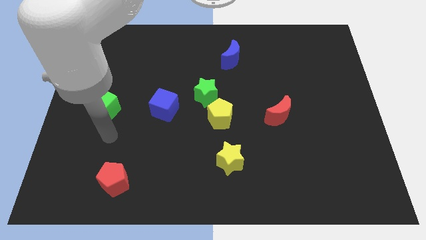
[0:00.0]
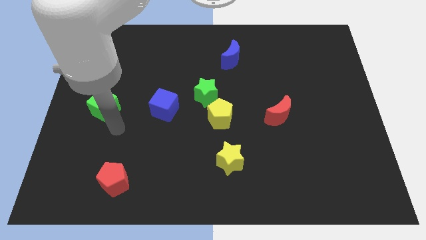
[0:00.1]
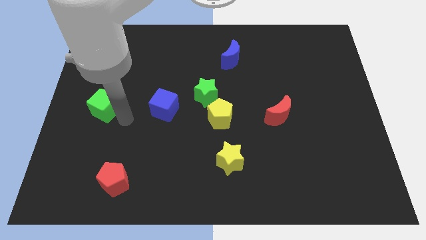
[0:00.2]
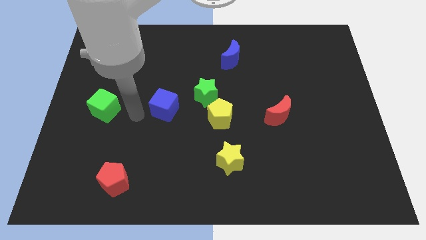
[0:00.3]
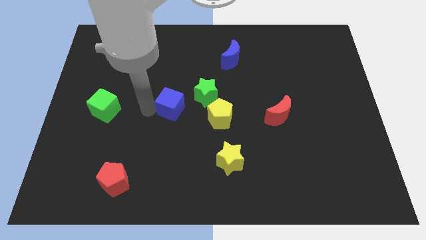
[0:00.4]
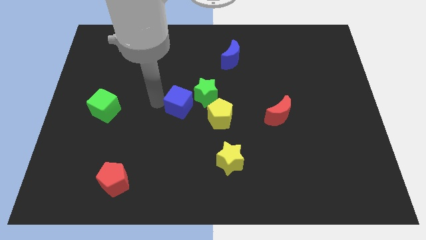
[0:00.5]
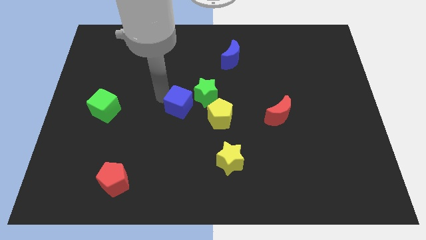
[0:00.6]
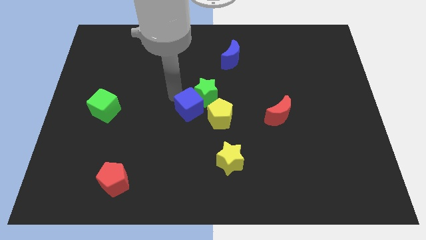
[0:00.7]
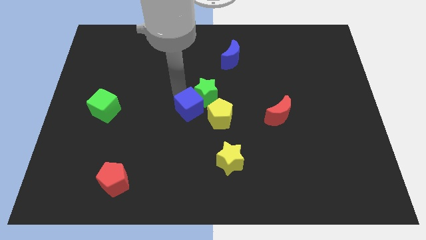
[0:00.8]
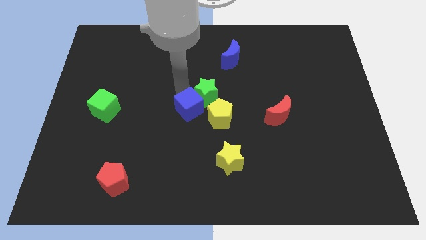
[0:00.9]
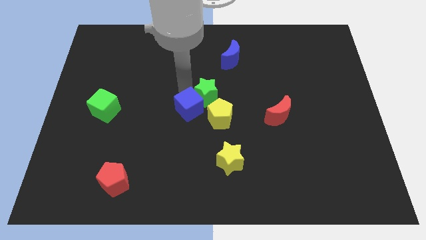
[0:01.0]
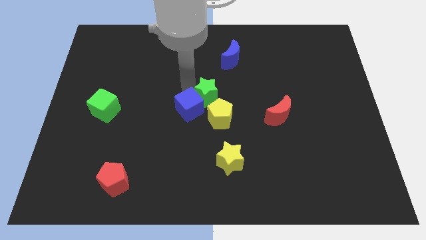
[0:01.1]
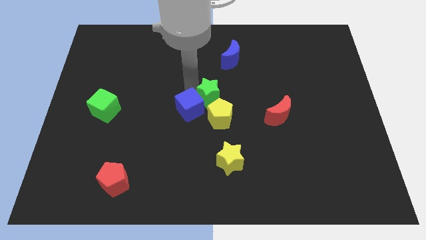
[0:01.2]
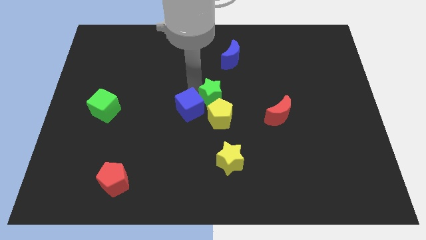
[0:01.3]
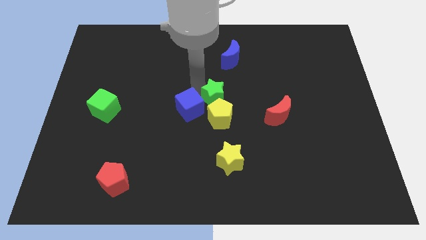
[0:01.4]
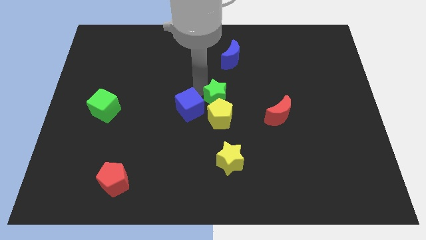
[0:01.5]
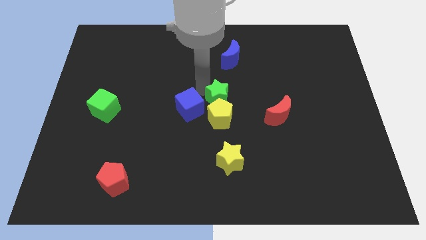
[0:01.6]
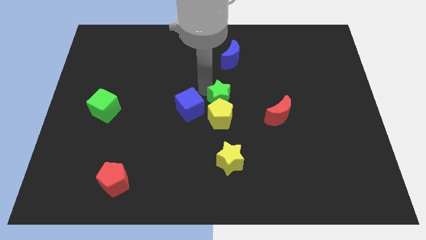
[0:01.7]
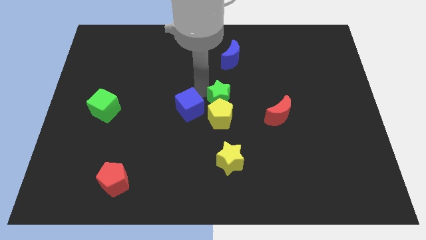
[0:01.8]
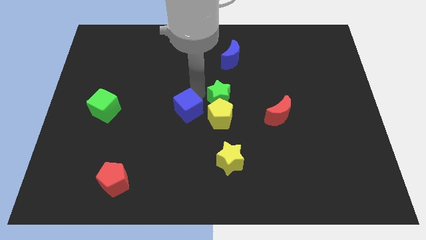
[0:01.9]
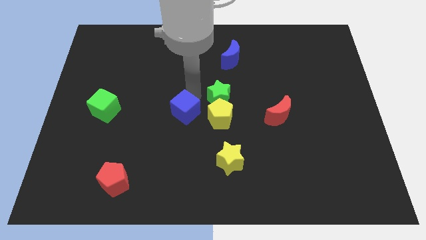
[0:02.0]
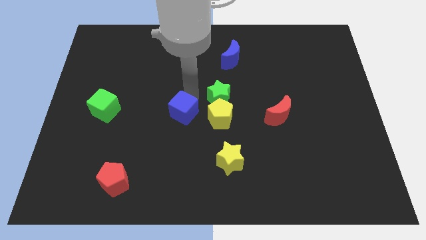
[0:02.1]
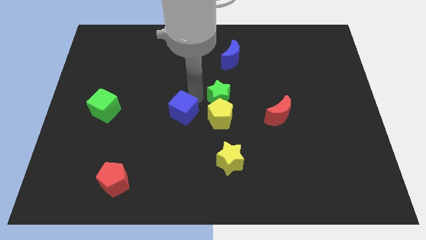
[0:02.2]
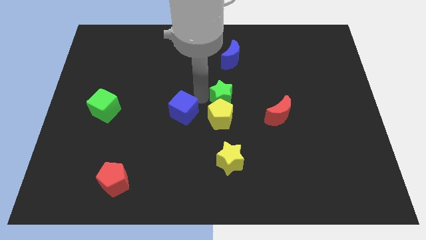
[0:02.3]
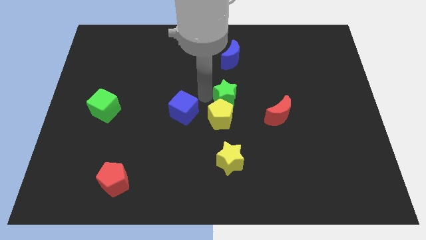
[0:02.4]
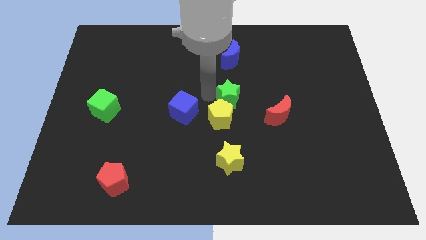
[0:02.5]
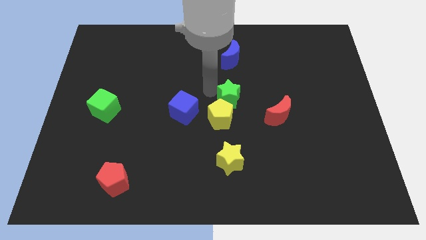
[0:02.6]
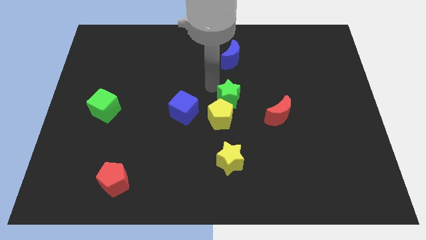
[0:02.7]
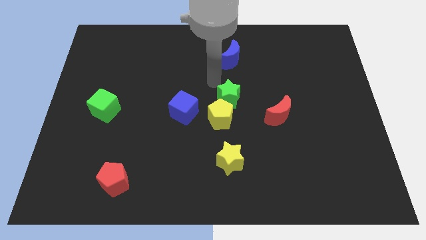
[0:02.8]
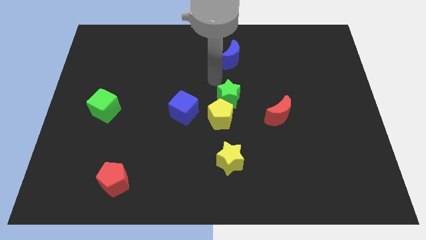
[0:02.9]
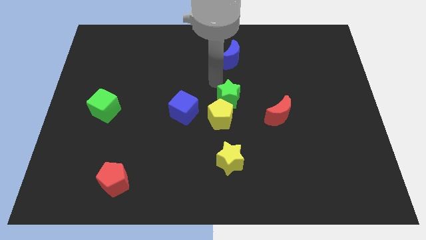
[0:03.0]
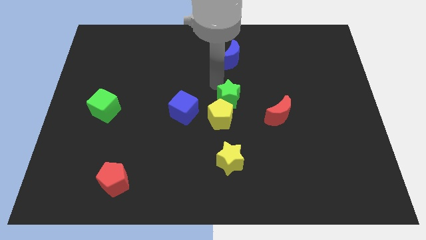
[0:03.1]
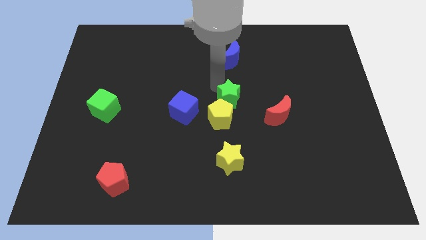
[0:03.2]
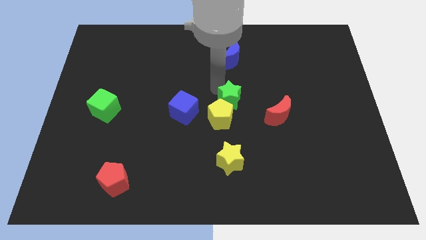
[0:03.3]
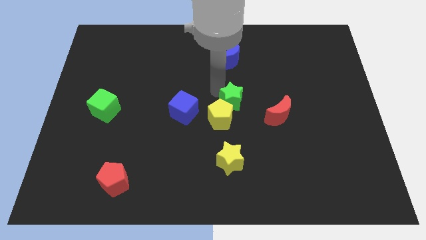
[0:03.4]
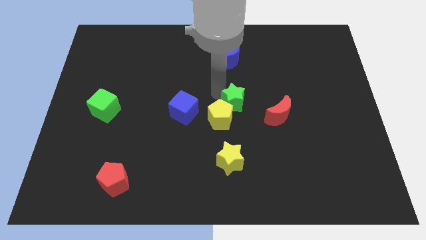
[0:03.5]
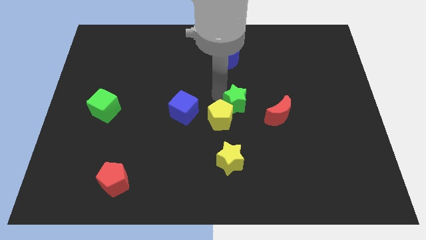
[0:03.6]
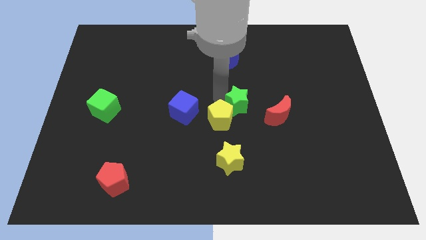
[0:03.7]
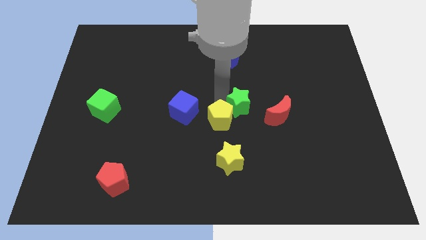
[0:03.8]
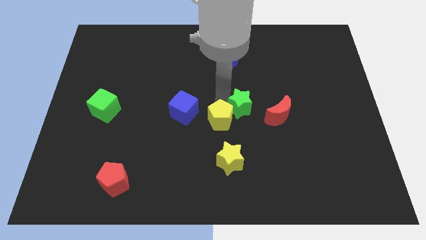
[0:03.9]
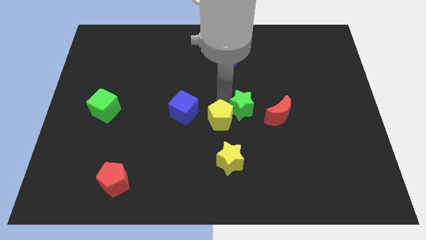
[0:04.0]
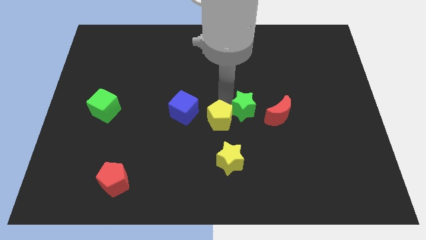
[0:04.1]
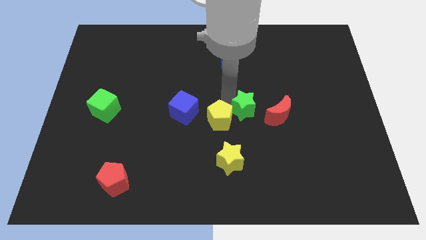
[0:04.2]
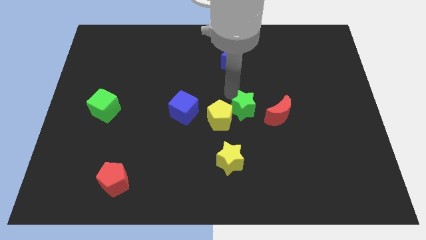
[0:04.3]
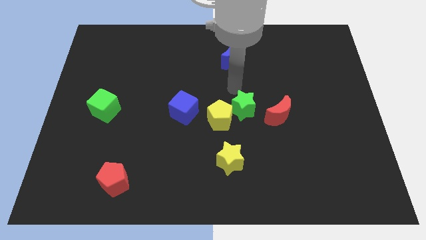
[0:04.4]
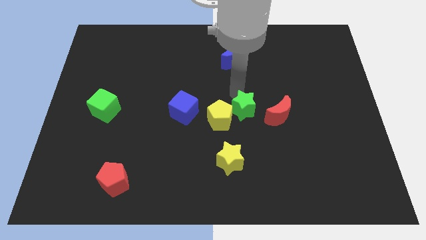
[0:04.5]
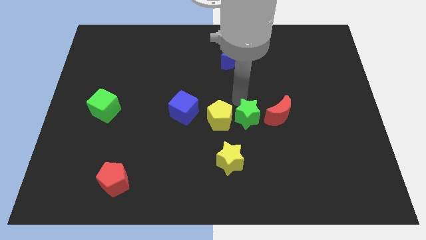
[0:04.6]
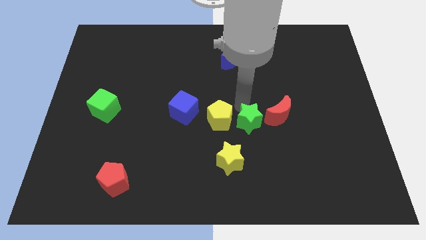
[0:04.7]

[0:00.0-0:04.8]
slide the green star to the top right side of the yellow star

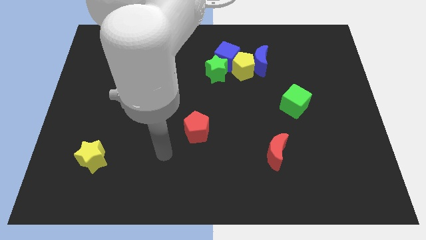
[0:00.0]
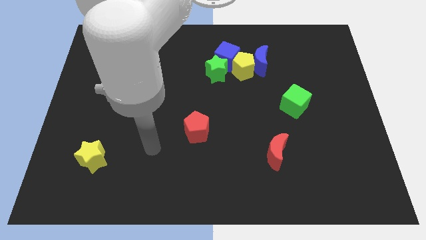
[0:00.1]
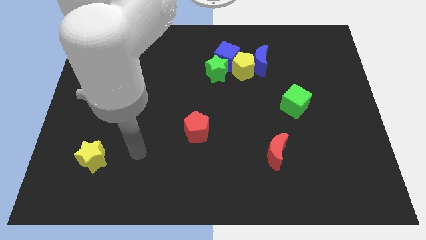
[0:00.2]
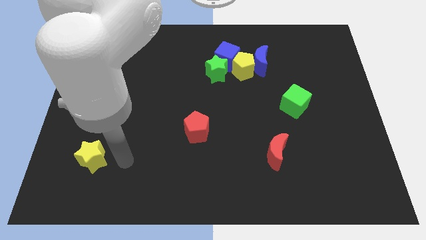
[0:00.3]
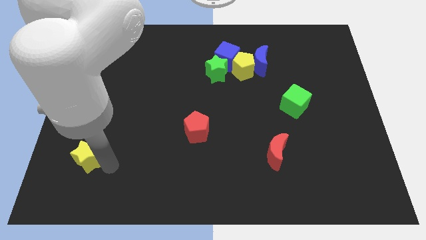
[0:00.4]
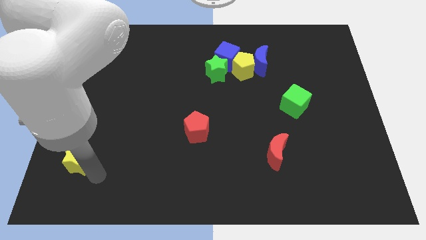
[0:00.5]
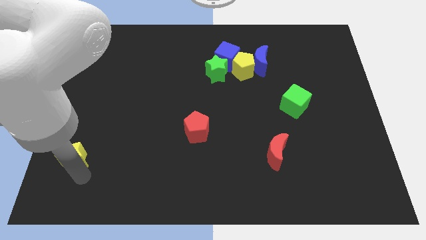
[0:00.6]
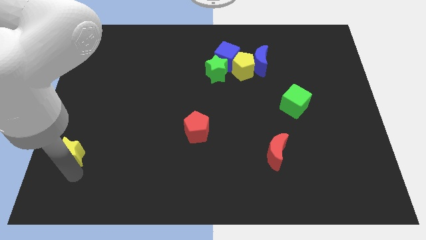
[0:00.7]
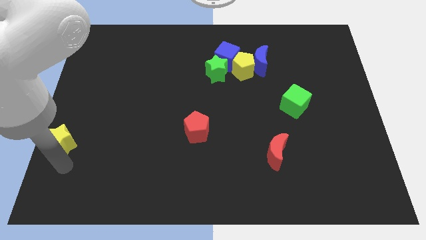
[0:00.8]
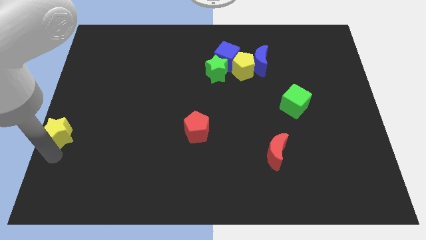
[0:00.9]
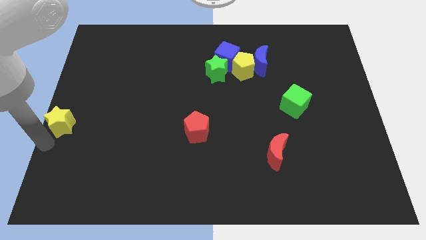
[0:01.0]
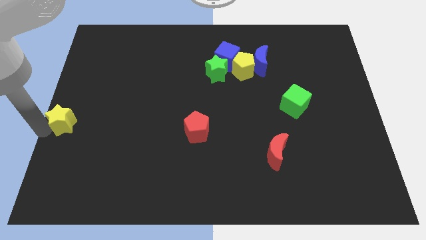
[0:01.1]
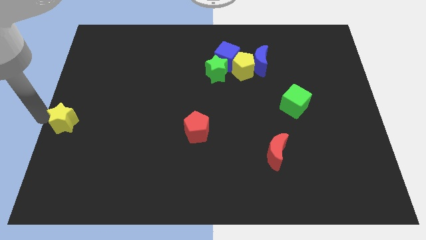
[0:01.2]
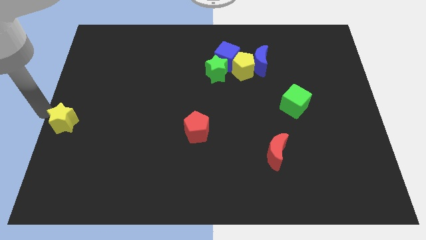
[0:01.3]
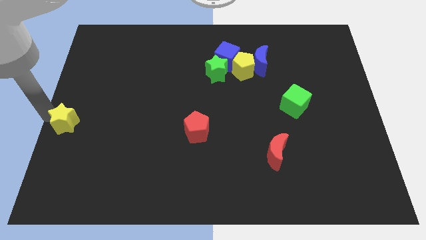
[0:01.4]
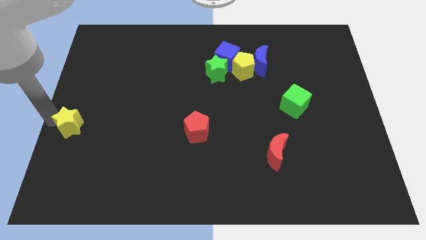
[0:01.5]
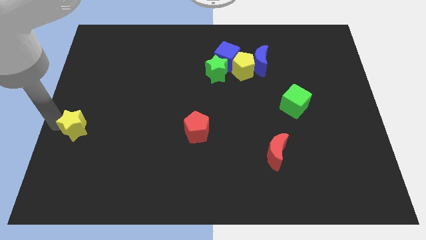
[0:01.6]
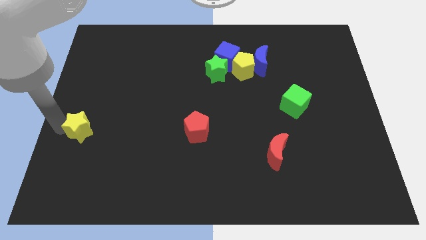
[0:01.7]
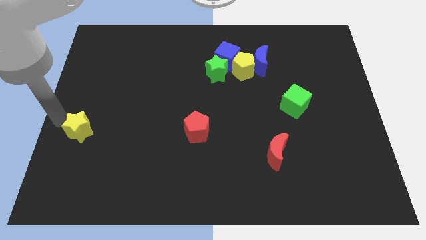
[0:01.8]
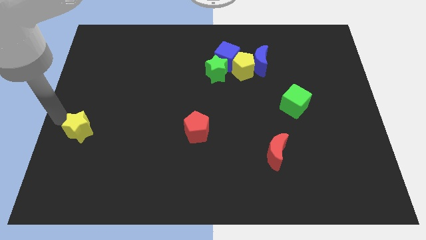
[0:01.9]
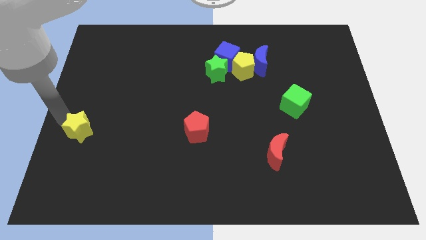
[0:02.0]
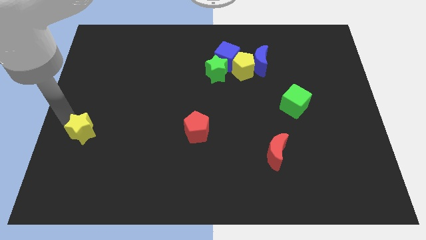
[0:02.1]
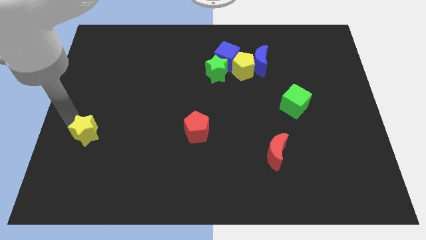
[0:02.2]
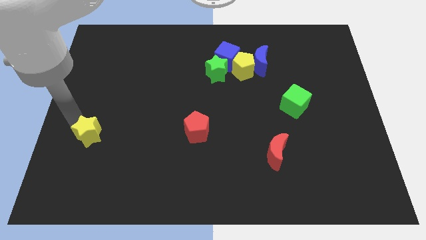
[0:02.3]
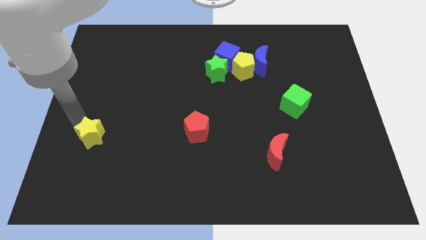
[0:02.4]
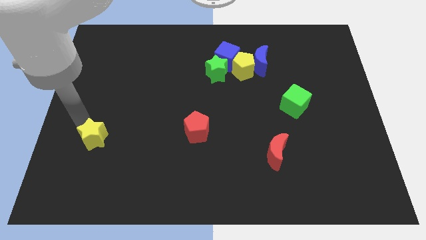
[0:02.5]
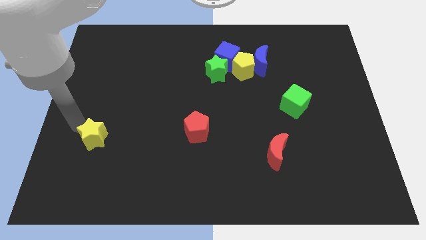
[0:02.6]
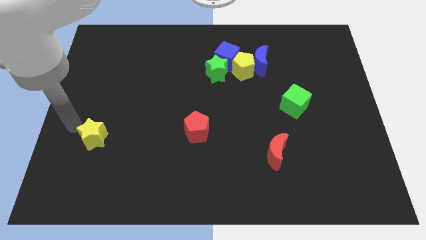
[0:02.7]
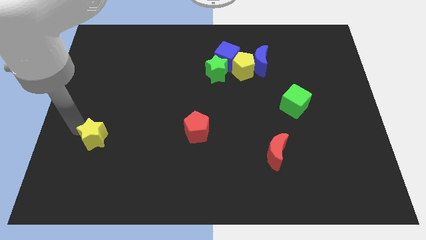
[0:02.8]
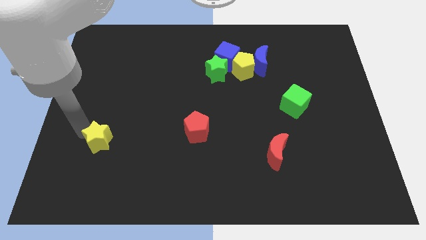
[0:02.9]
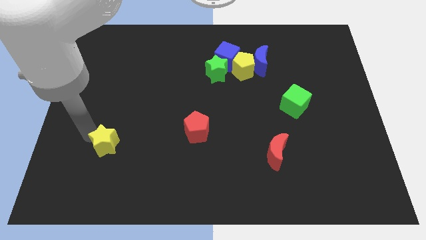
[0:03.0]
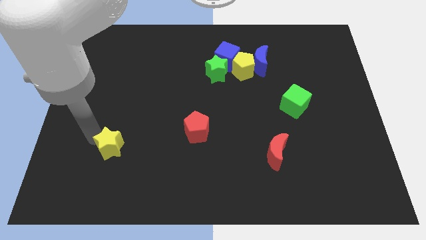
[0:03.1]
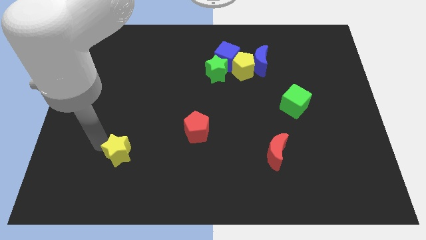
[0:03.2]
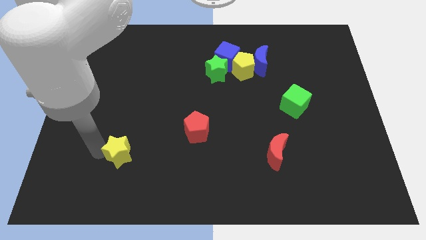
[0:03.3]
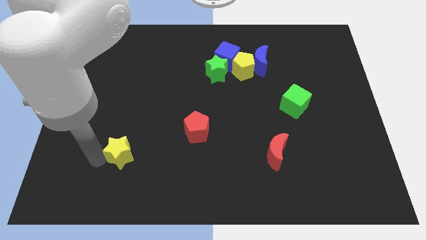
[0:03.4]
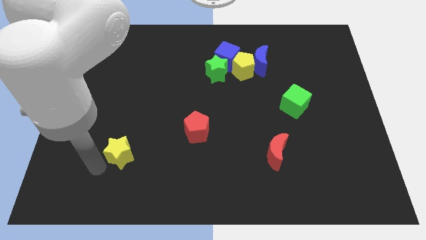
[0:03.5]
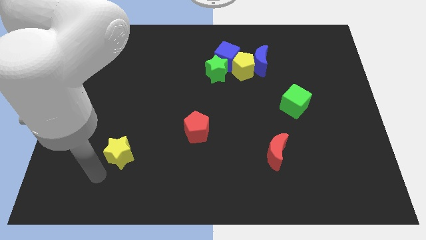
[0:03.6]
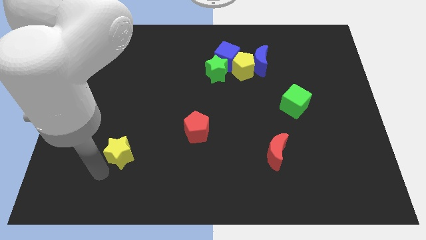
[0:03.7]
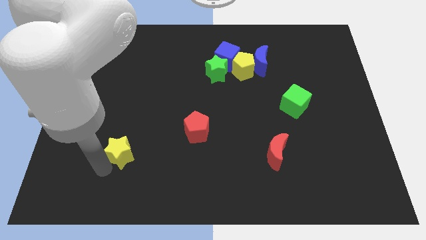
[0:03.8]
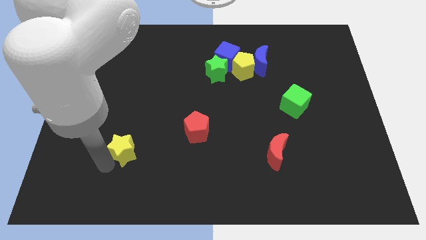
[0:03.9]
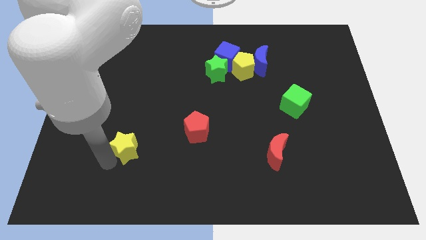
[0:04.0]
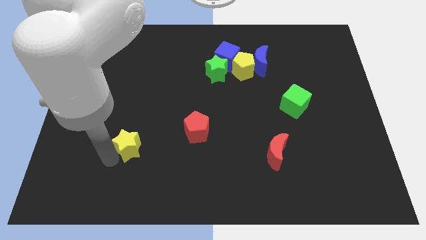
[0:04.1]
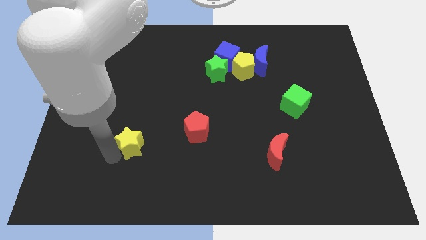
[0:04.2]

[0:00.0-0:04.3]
slide the yellow star to the left of the red pentagon
